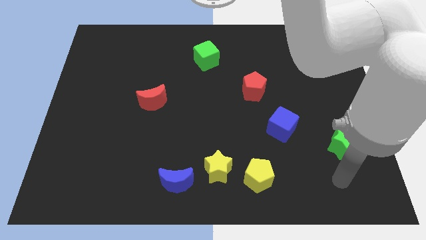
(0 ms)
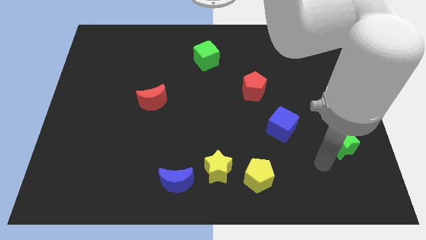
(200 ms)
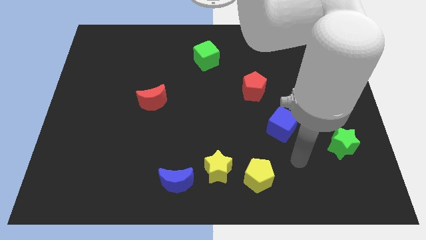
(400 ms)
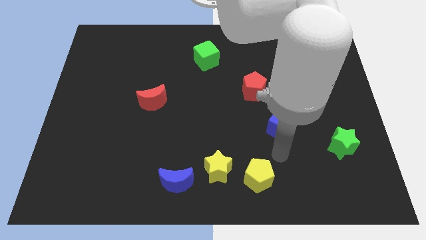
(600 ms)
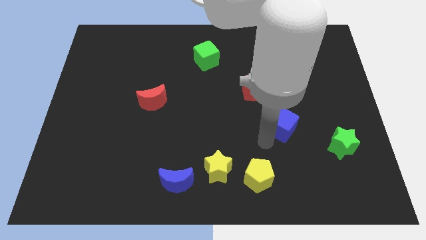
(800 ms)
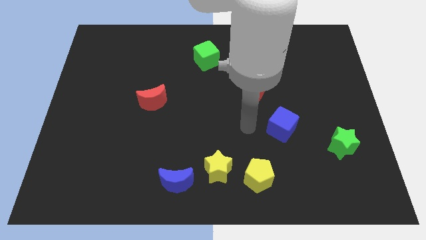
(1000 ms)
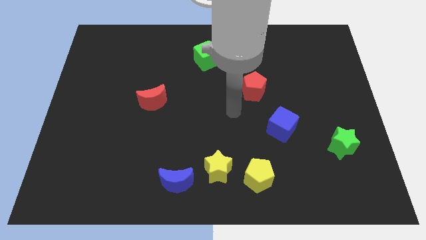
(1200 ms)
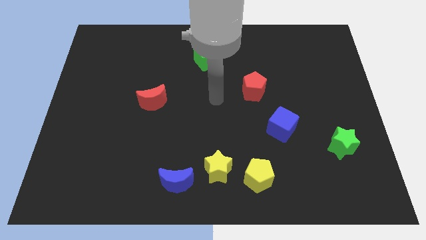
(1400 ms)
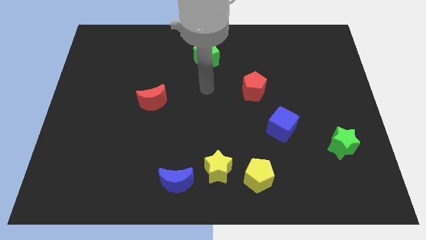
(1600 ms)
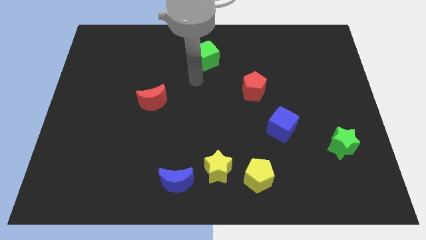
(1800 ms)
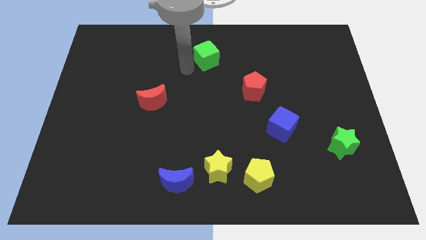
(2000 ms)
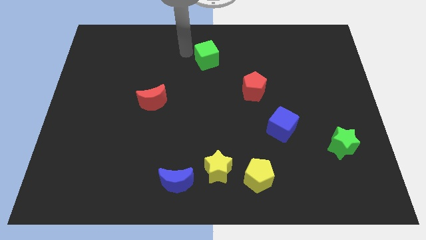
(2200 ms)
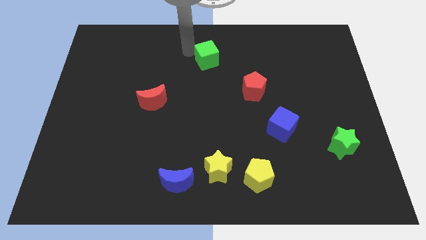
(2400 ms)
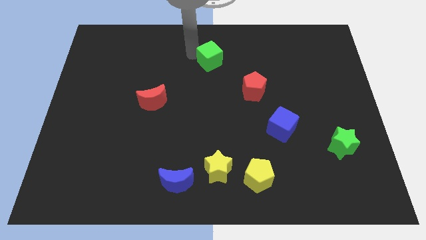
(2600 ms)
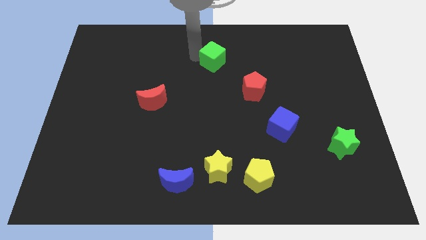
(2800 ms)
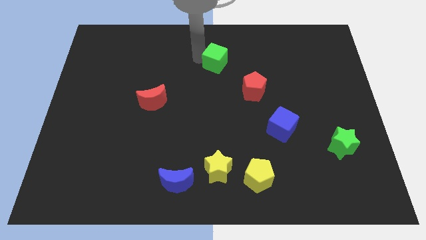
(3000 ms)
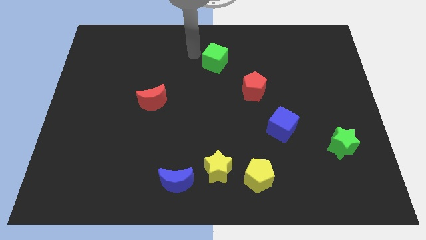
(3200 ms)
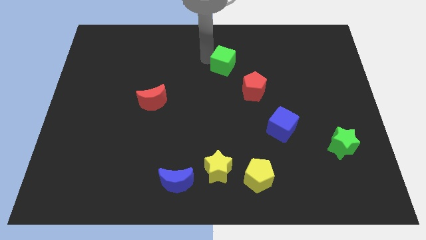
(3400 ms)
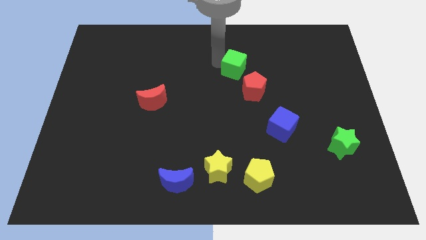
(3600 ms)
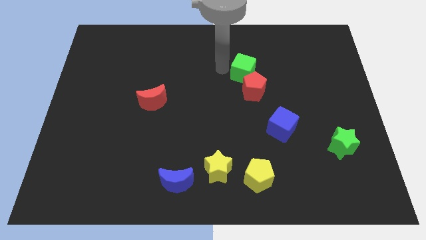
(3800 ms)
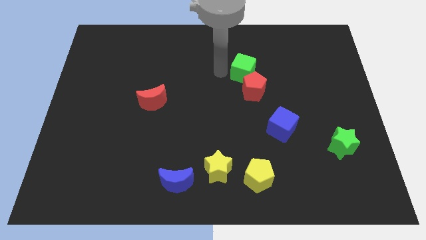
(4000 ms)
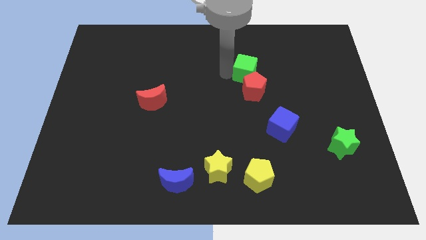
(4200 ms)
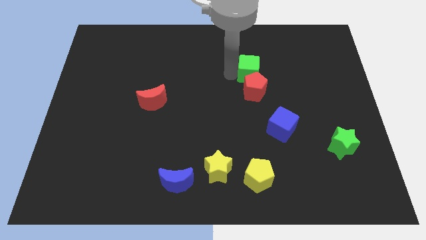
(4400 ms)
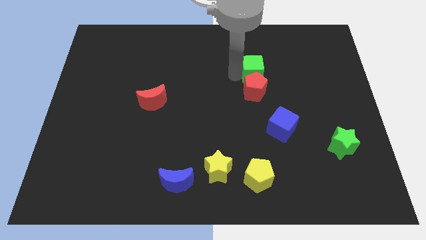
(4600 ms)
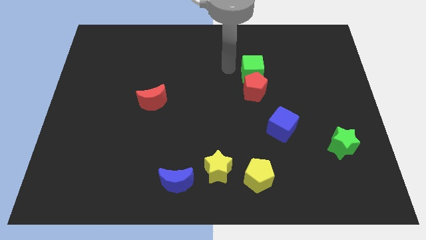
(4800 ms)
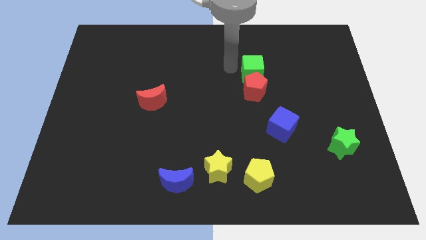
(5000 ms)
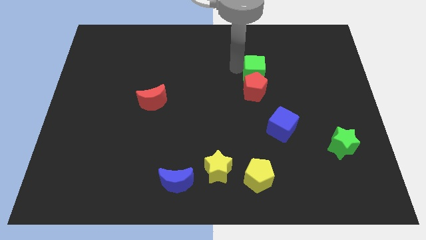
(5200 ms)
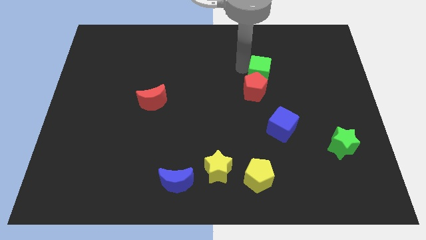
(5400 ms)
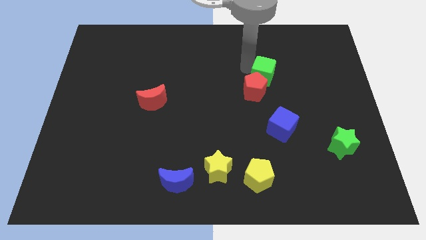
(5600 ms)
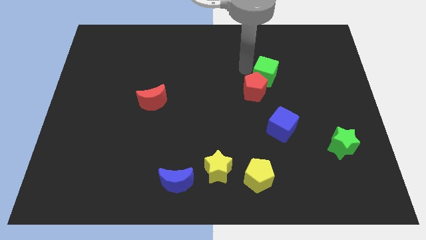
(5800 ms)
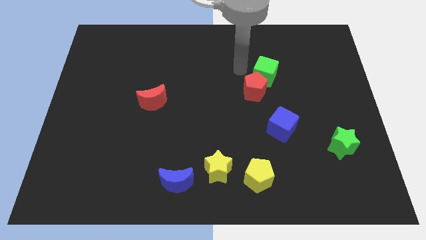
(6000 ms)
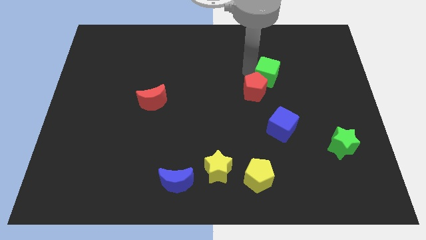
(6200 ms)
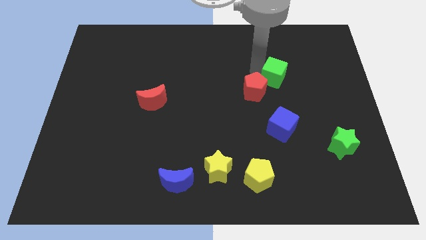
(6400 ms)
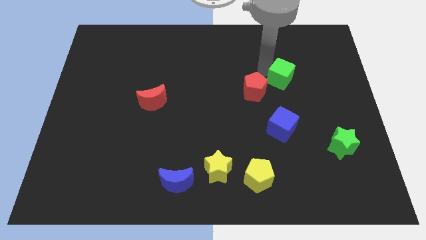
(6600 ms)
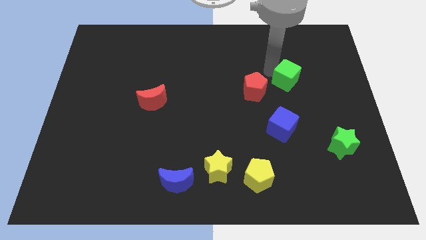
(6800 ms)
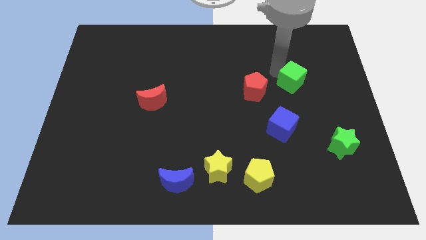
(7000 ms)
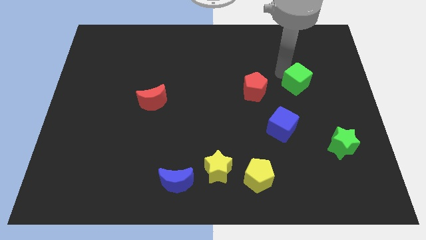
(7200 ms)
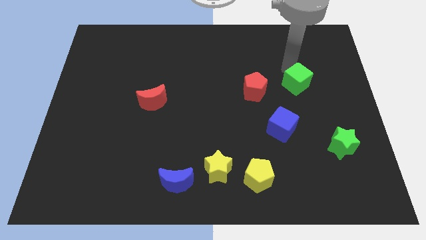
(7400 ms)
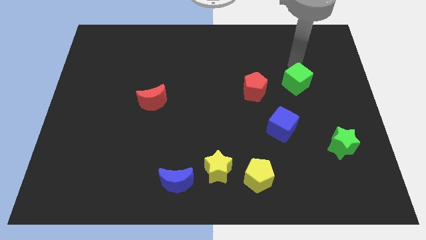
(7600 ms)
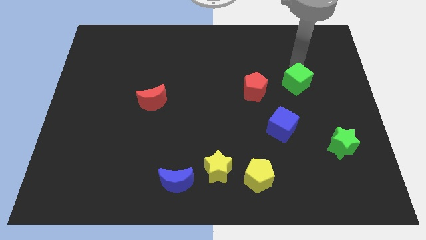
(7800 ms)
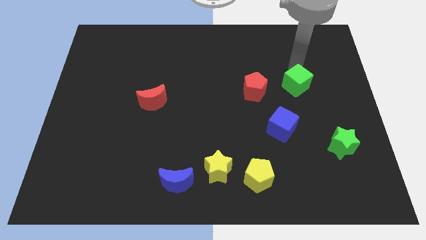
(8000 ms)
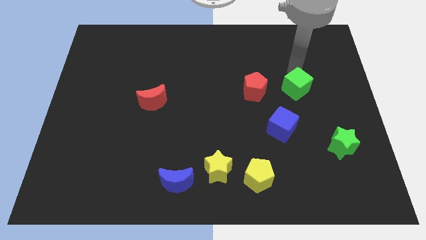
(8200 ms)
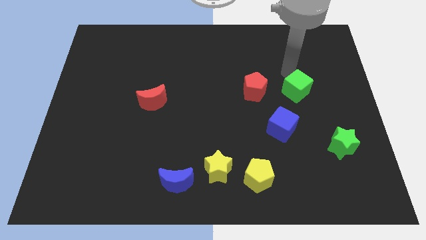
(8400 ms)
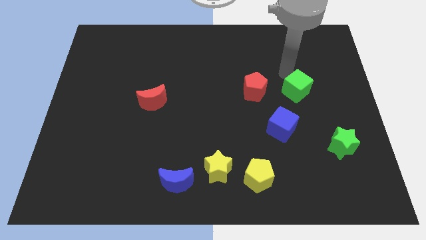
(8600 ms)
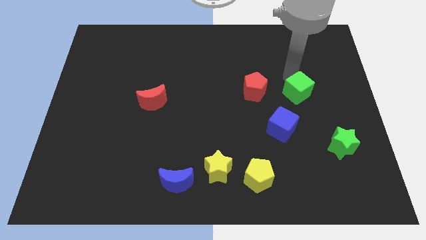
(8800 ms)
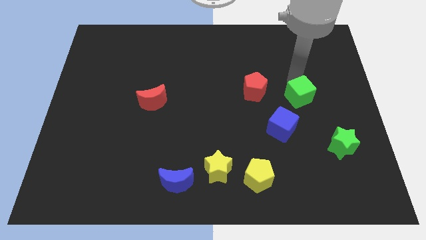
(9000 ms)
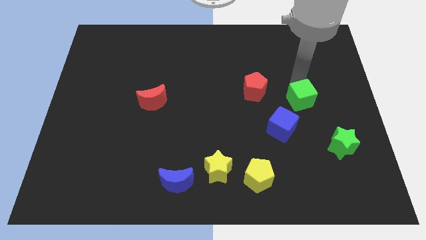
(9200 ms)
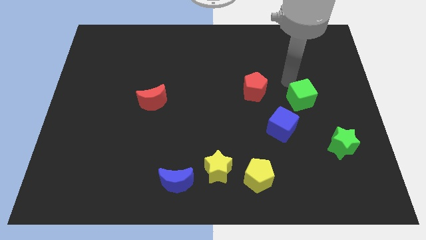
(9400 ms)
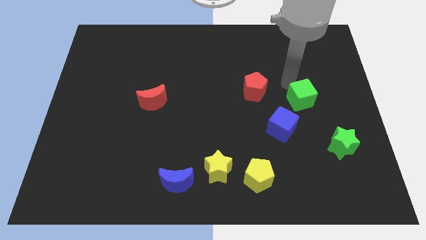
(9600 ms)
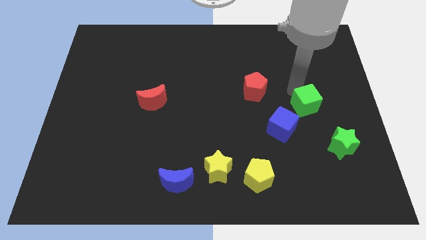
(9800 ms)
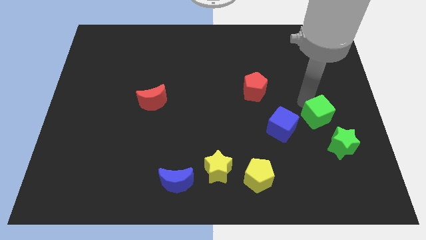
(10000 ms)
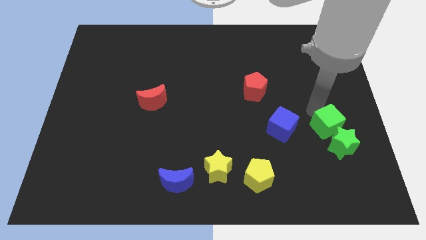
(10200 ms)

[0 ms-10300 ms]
move the green cube towards the green star

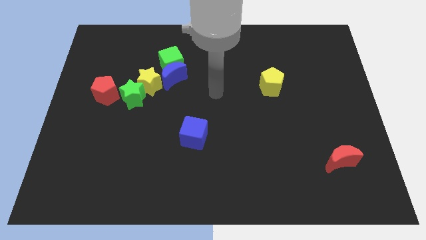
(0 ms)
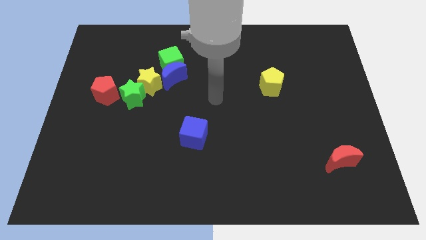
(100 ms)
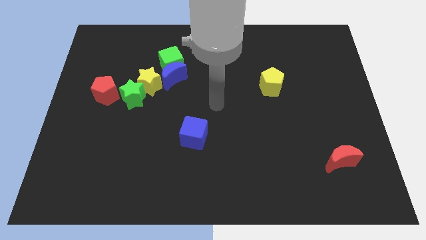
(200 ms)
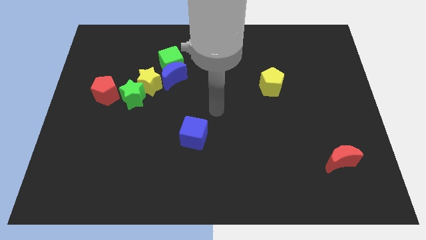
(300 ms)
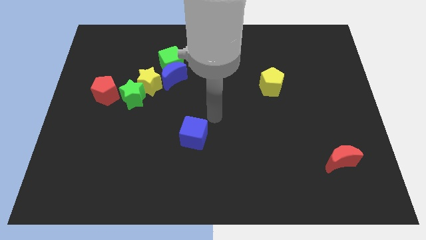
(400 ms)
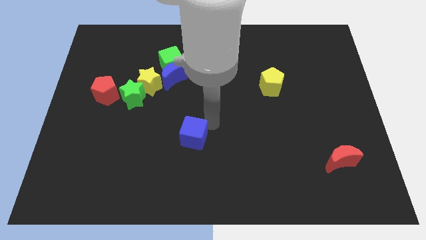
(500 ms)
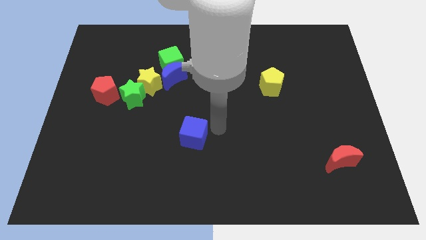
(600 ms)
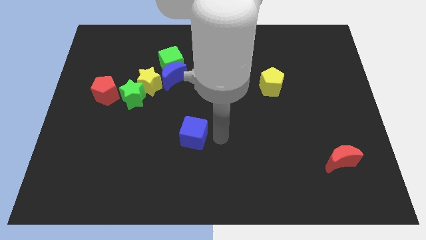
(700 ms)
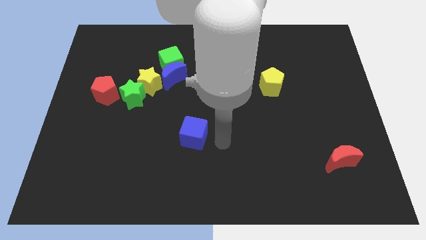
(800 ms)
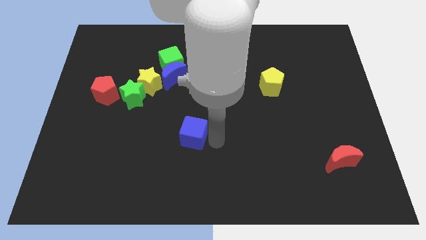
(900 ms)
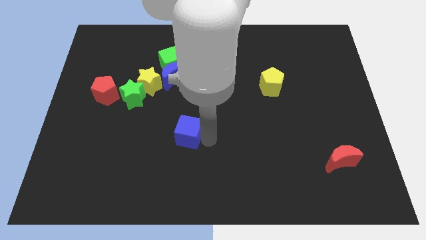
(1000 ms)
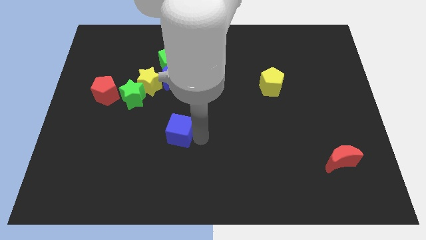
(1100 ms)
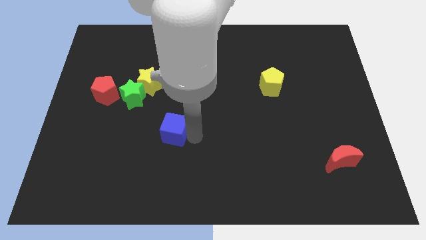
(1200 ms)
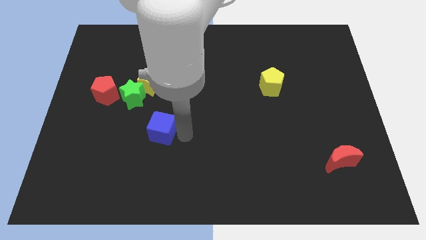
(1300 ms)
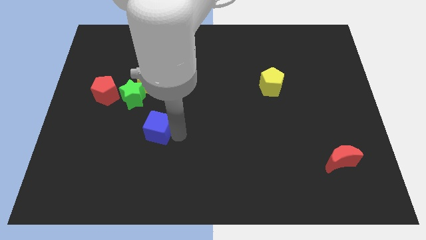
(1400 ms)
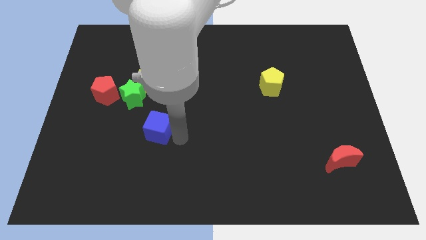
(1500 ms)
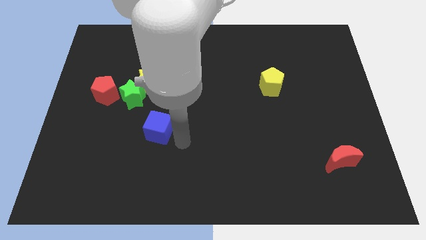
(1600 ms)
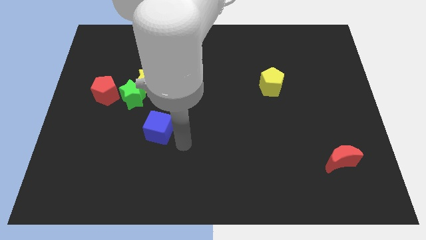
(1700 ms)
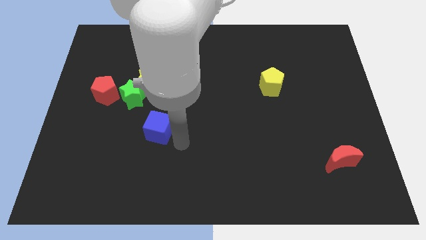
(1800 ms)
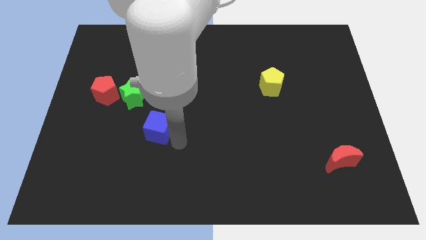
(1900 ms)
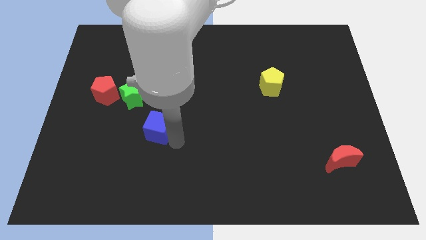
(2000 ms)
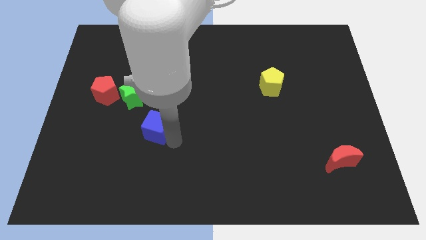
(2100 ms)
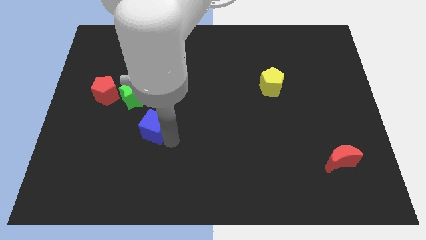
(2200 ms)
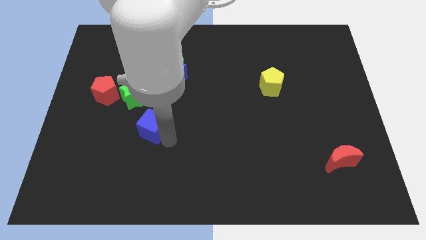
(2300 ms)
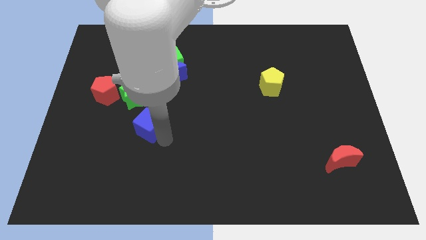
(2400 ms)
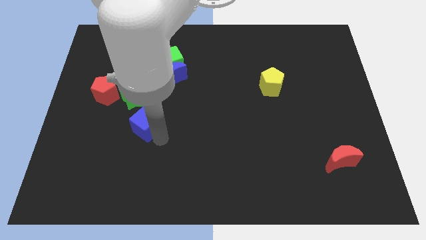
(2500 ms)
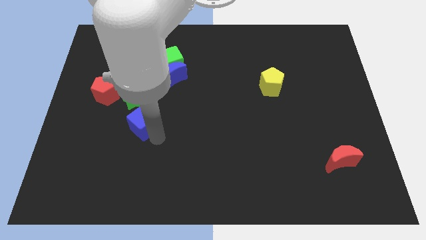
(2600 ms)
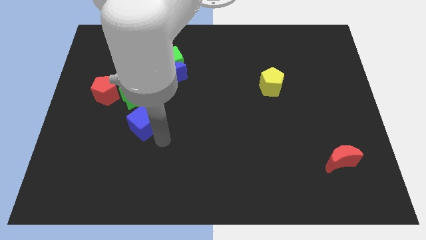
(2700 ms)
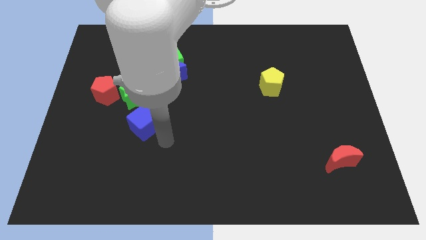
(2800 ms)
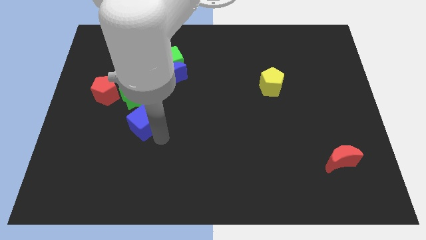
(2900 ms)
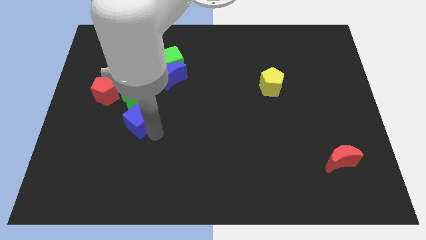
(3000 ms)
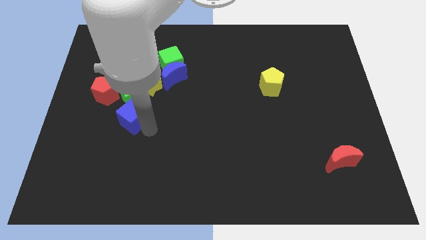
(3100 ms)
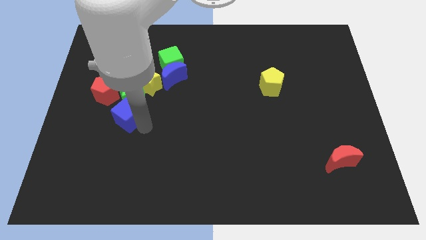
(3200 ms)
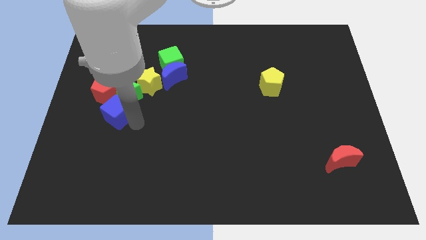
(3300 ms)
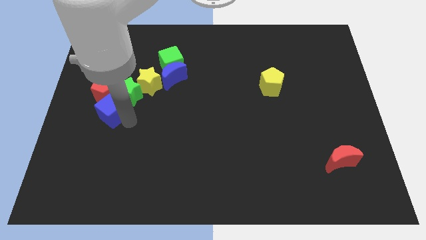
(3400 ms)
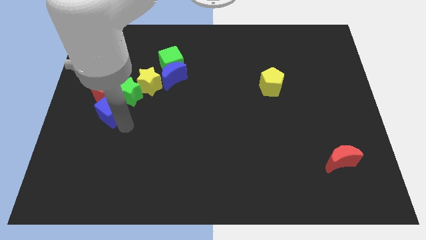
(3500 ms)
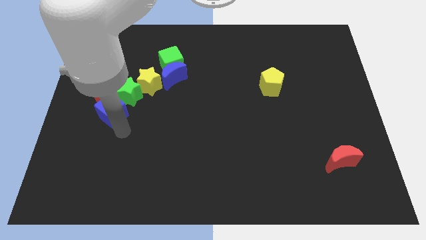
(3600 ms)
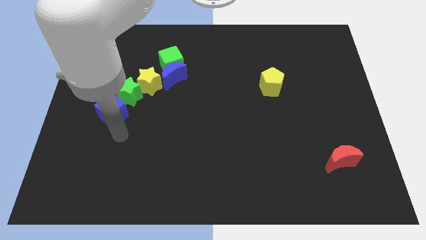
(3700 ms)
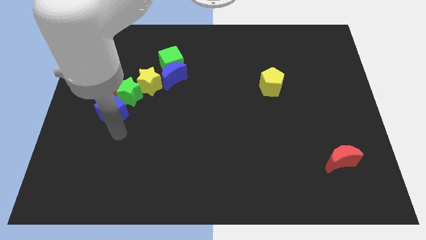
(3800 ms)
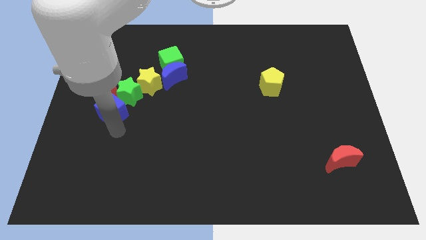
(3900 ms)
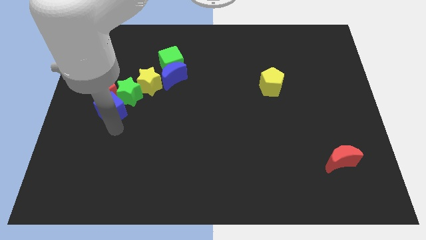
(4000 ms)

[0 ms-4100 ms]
slide the blue cube to the red pentagon
